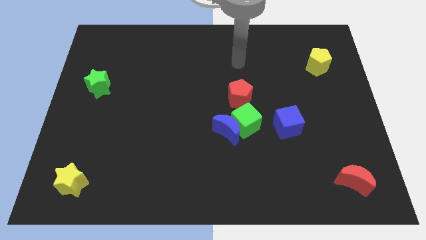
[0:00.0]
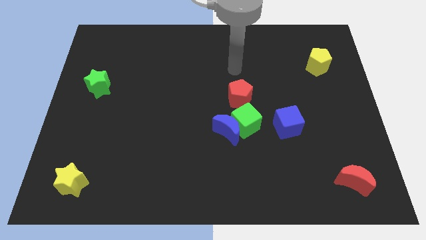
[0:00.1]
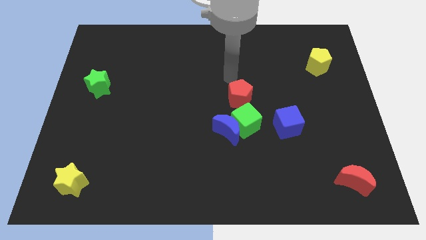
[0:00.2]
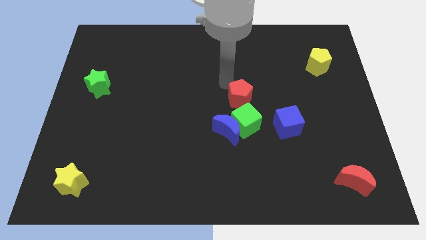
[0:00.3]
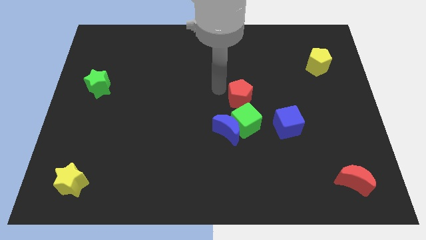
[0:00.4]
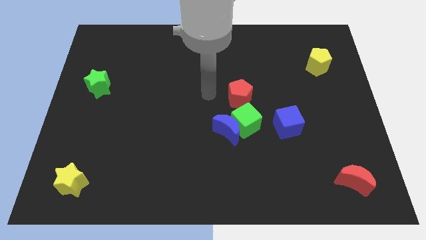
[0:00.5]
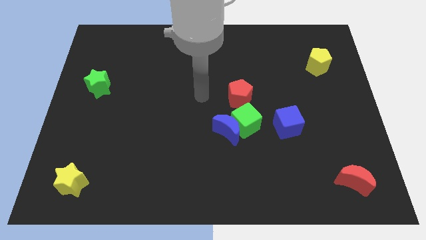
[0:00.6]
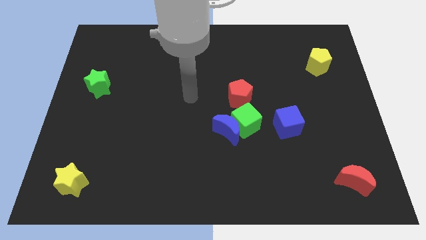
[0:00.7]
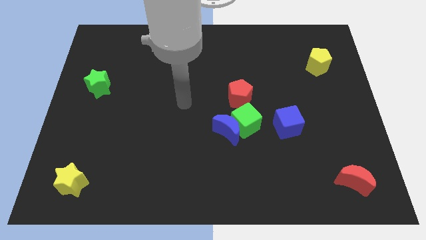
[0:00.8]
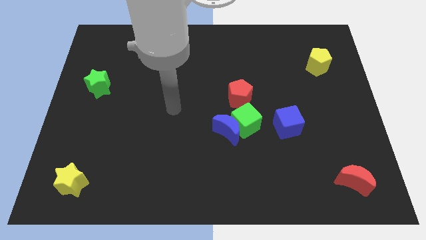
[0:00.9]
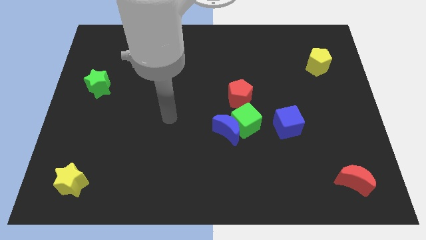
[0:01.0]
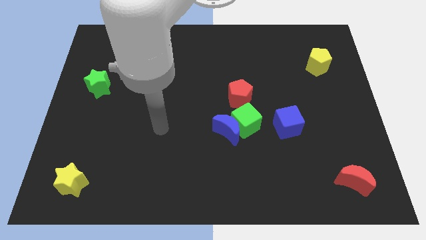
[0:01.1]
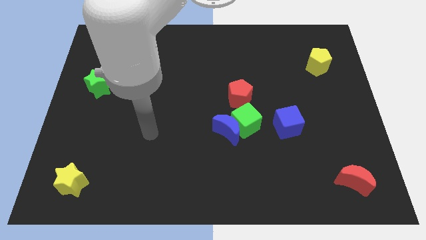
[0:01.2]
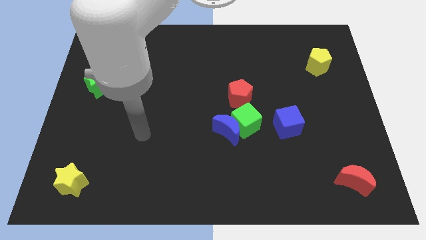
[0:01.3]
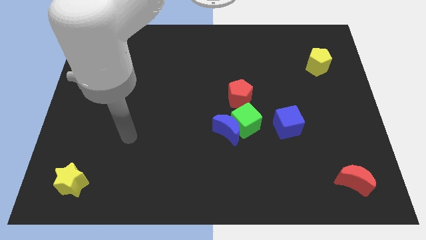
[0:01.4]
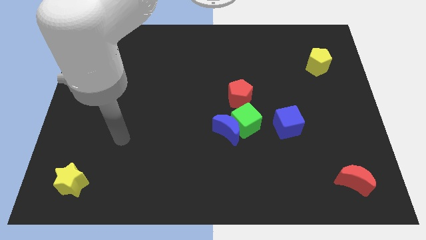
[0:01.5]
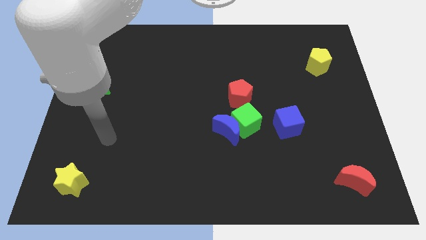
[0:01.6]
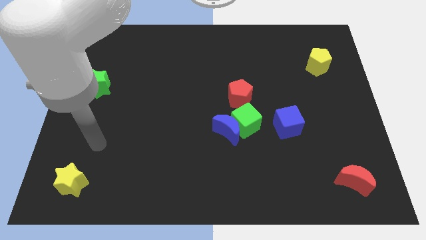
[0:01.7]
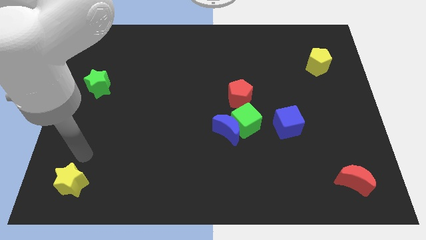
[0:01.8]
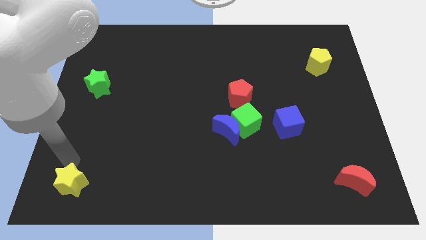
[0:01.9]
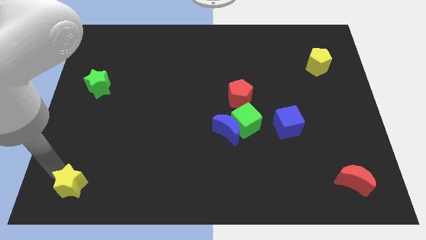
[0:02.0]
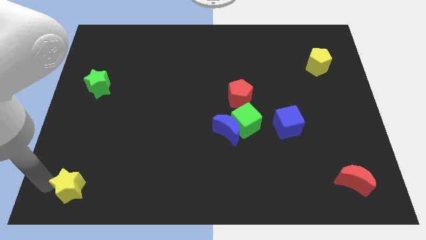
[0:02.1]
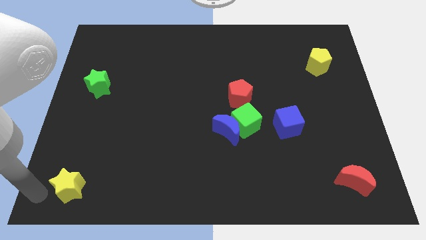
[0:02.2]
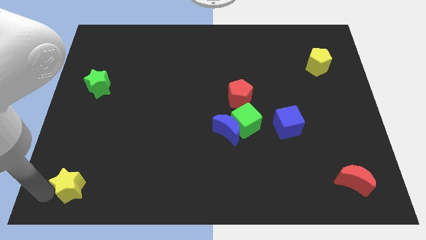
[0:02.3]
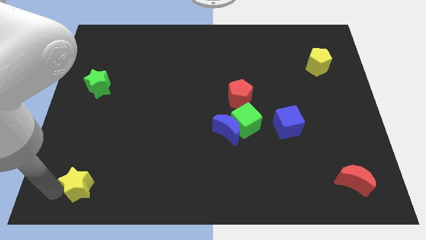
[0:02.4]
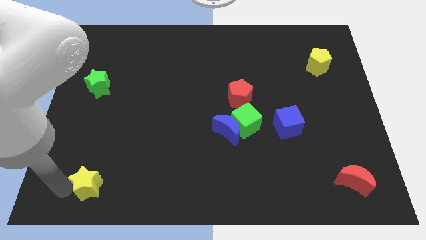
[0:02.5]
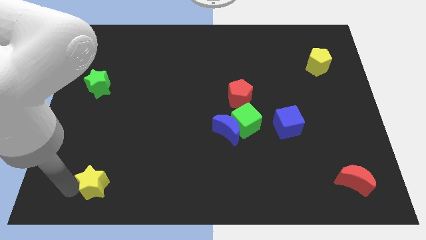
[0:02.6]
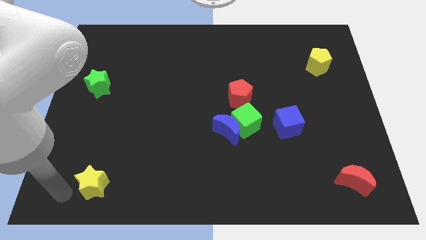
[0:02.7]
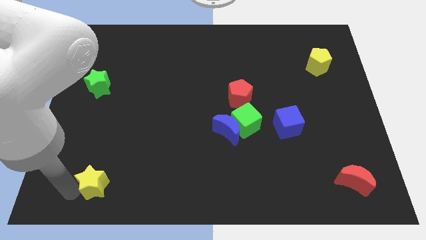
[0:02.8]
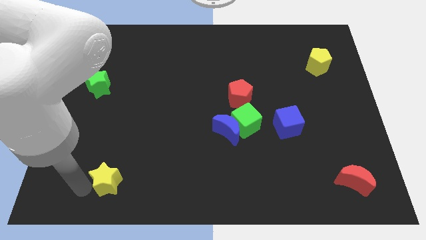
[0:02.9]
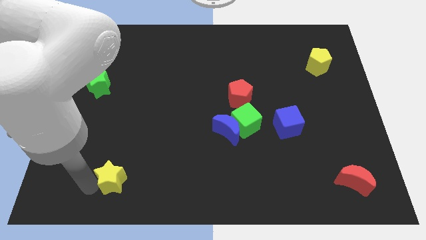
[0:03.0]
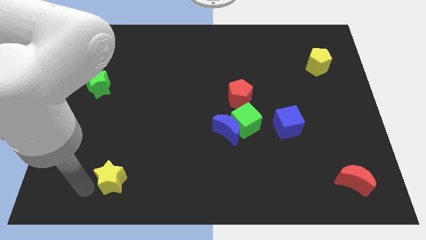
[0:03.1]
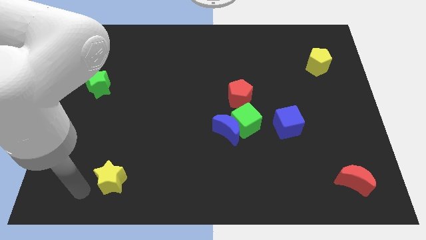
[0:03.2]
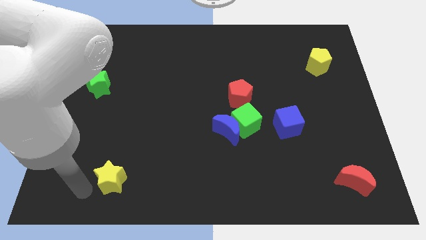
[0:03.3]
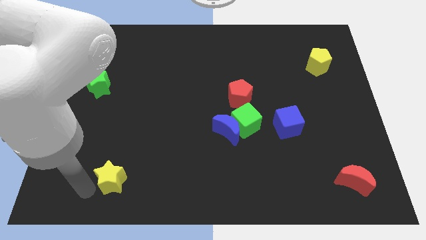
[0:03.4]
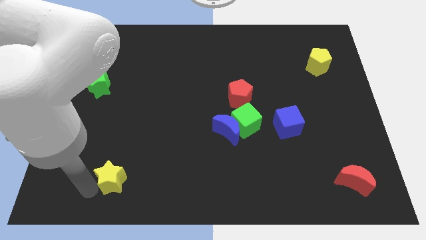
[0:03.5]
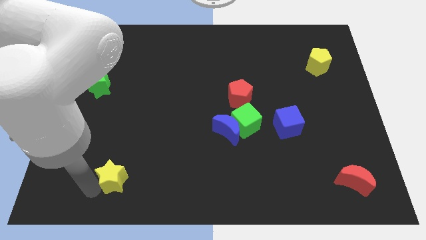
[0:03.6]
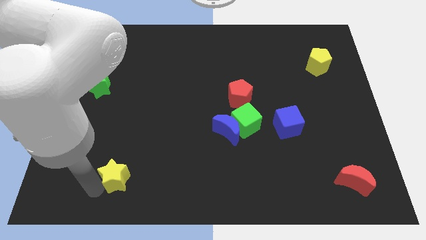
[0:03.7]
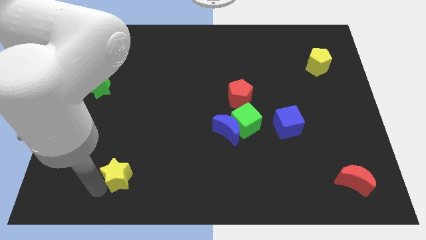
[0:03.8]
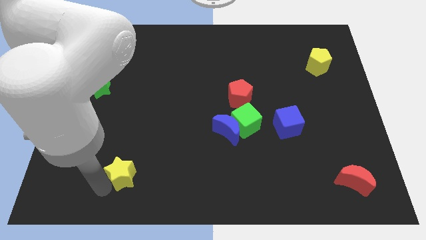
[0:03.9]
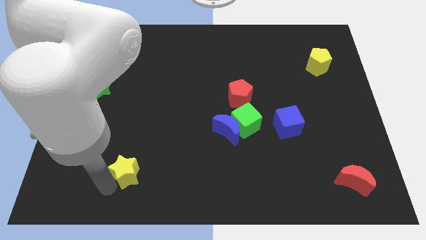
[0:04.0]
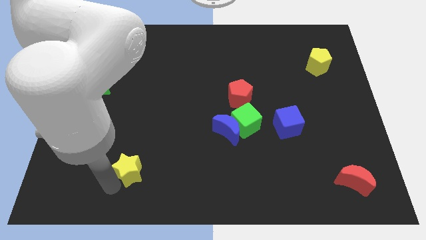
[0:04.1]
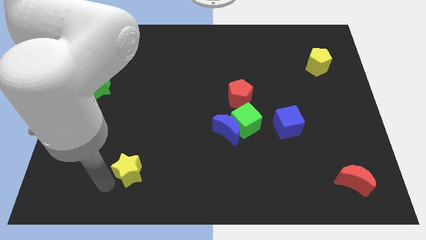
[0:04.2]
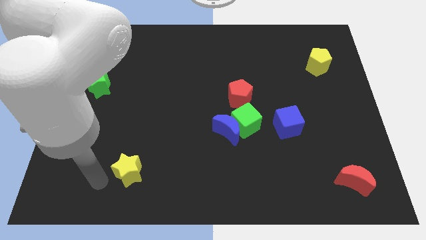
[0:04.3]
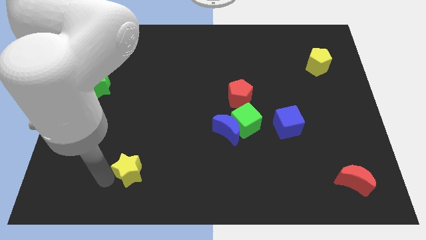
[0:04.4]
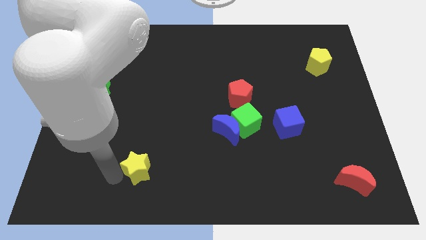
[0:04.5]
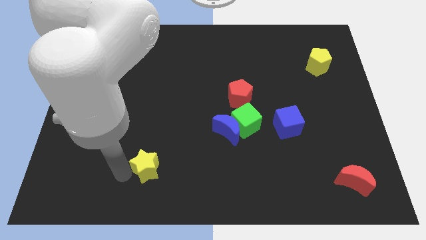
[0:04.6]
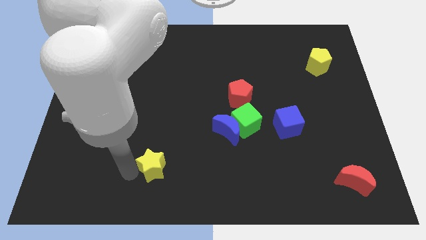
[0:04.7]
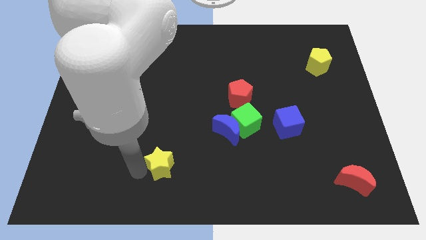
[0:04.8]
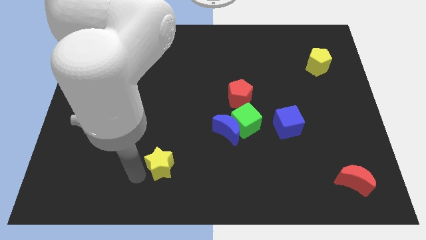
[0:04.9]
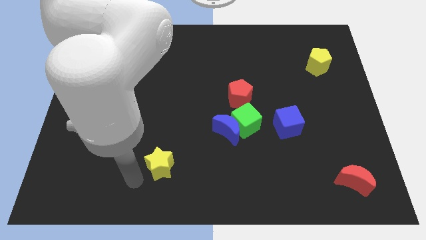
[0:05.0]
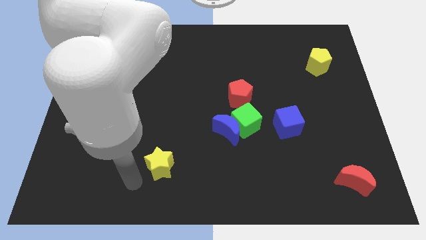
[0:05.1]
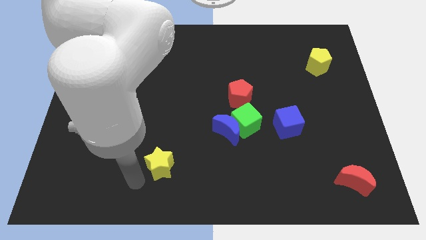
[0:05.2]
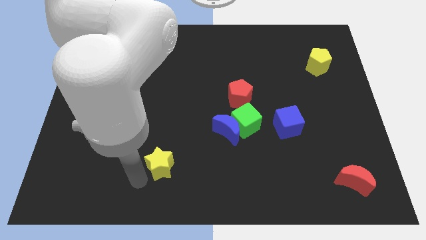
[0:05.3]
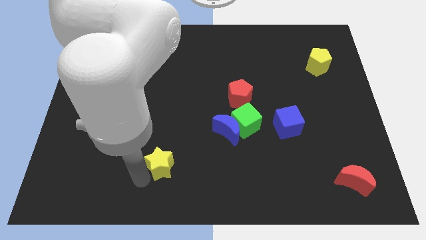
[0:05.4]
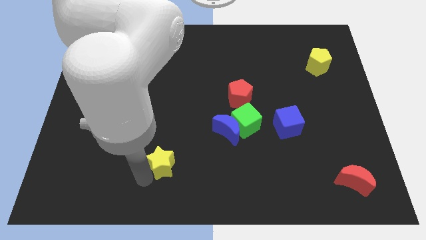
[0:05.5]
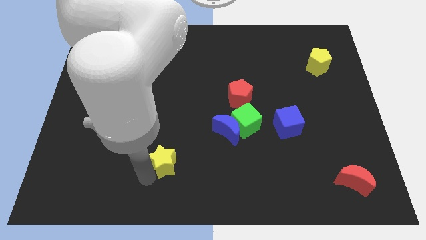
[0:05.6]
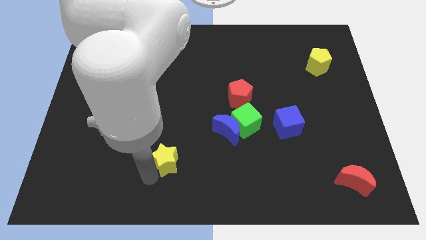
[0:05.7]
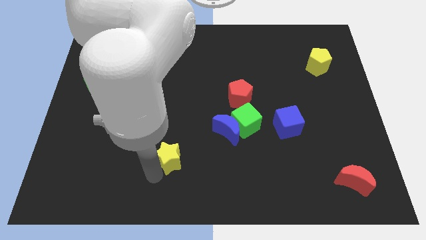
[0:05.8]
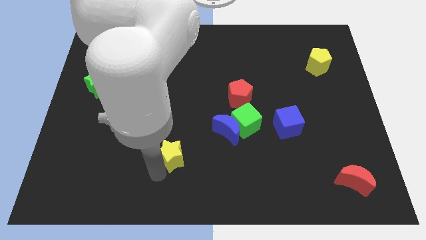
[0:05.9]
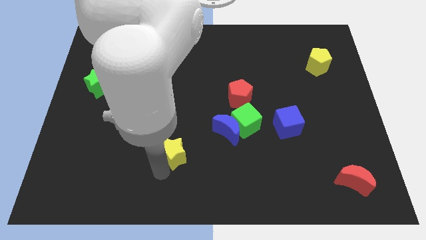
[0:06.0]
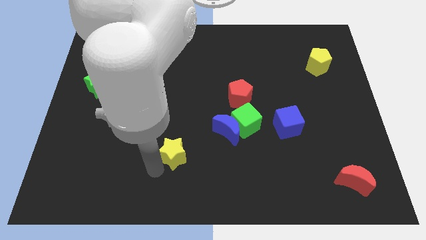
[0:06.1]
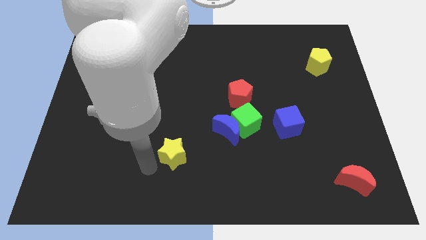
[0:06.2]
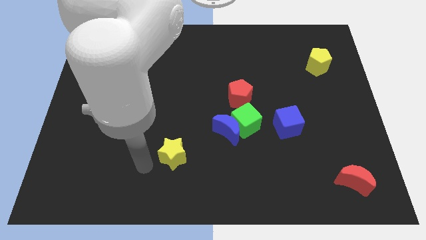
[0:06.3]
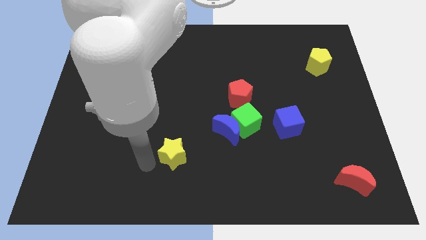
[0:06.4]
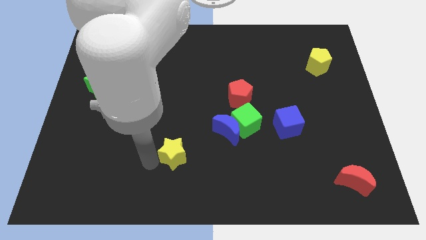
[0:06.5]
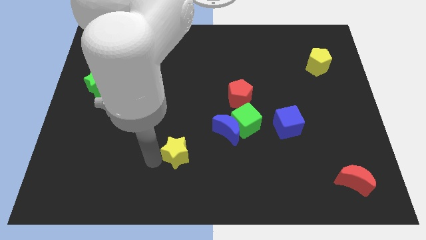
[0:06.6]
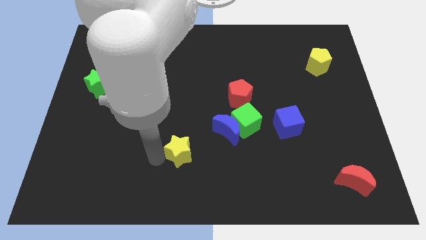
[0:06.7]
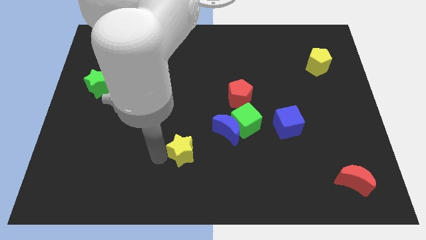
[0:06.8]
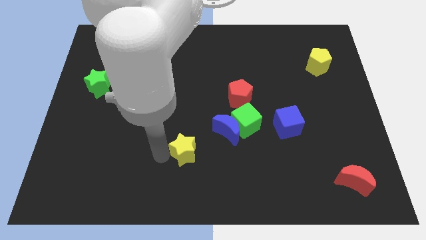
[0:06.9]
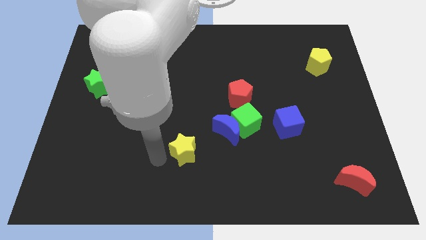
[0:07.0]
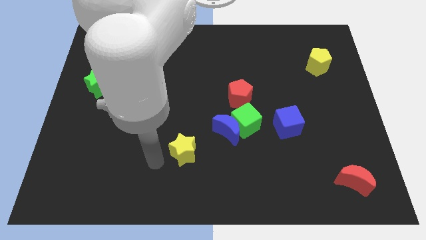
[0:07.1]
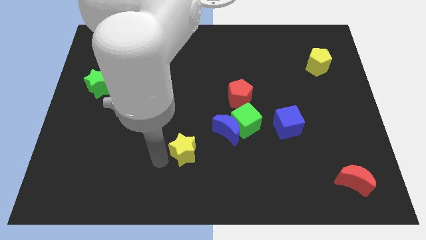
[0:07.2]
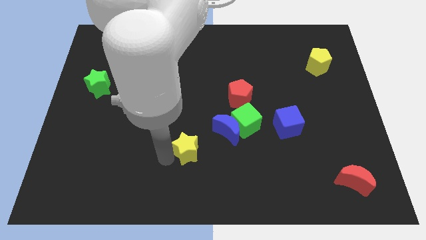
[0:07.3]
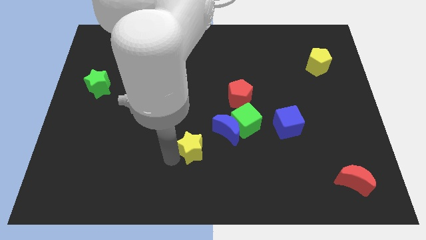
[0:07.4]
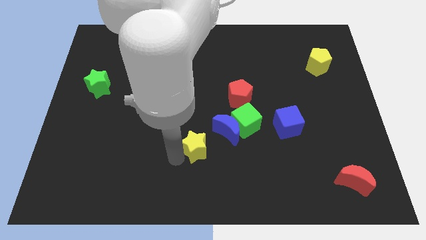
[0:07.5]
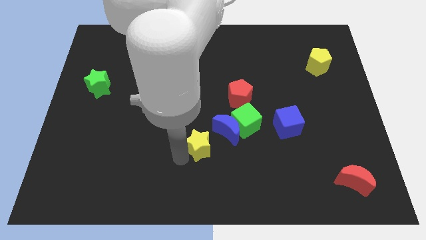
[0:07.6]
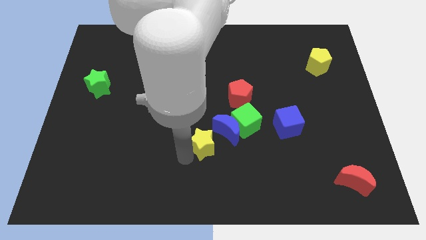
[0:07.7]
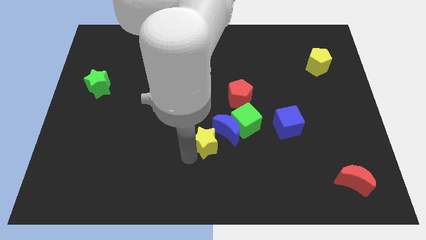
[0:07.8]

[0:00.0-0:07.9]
slide the yellow star to the blue moon
